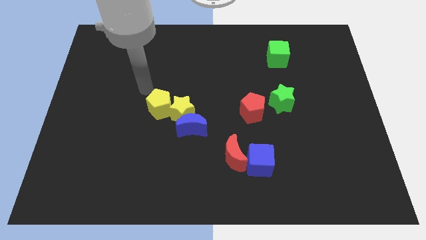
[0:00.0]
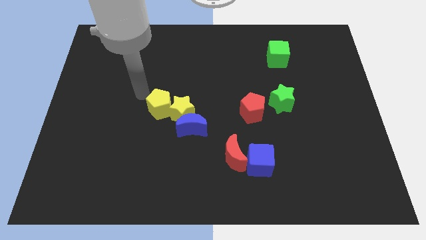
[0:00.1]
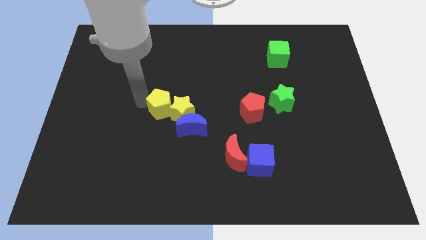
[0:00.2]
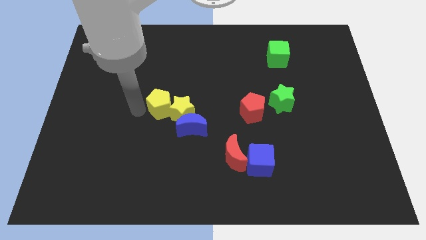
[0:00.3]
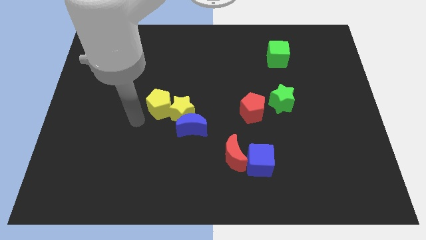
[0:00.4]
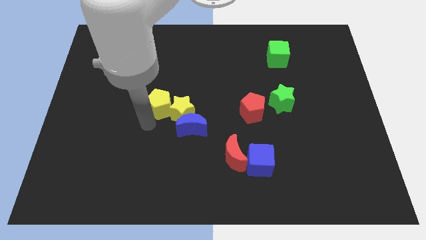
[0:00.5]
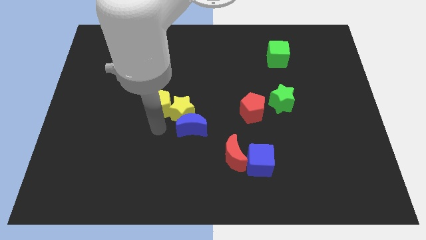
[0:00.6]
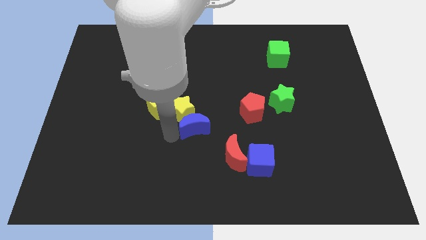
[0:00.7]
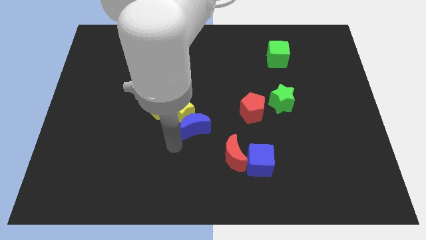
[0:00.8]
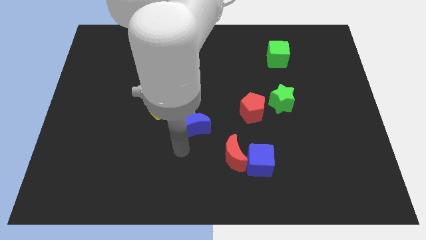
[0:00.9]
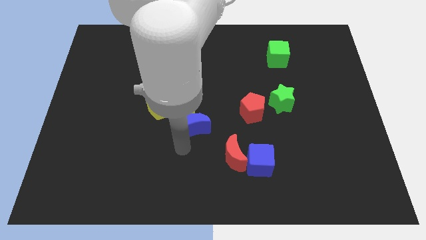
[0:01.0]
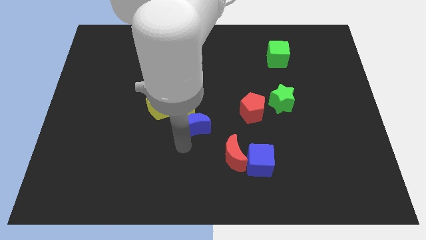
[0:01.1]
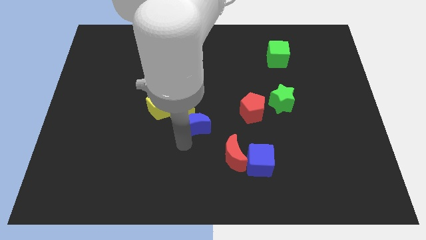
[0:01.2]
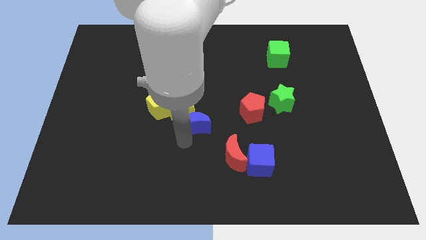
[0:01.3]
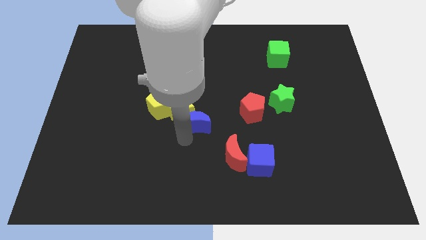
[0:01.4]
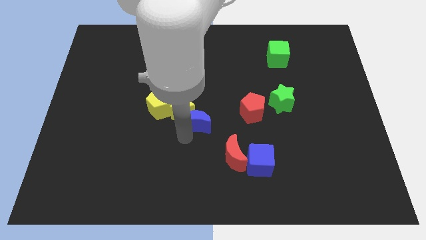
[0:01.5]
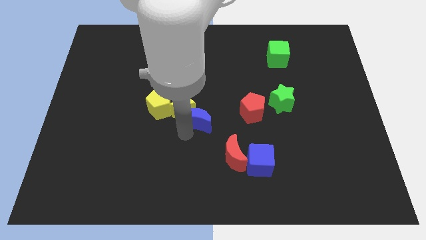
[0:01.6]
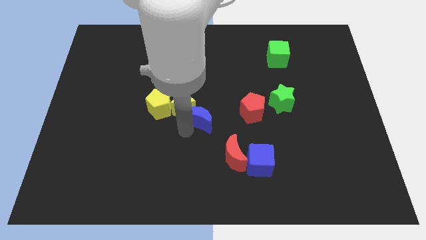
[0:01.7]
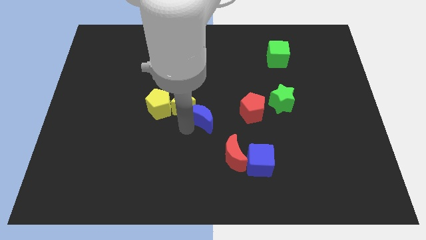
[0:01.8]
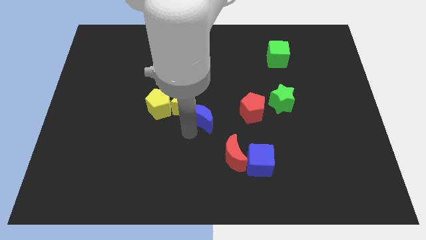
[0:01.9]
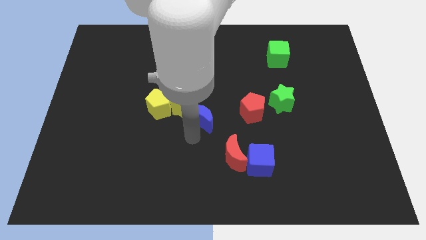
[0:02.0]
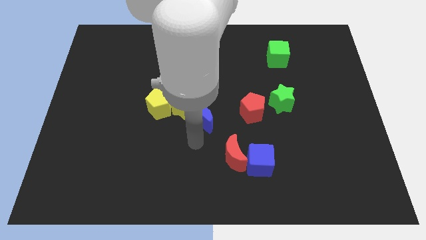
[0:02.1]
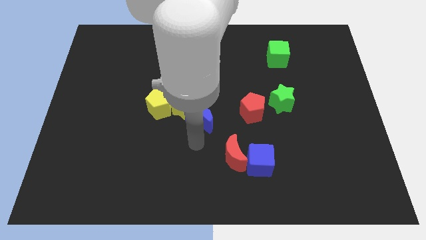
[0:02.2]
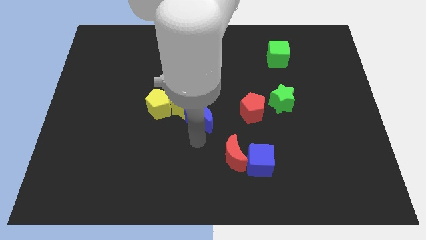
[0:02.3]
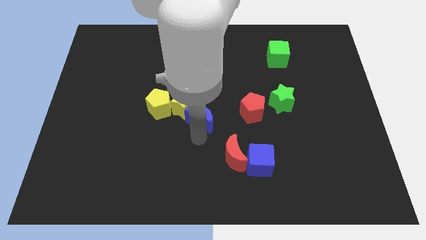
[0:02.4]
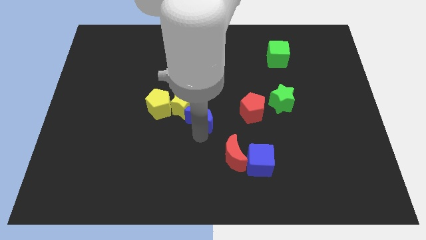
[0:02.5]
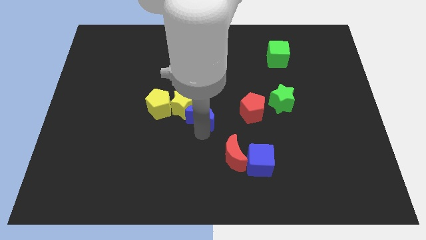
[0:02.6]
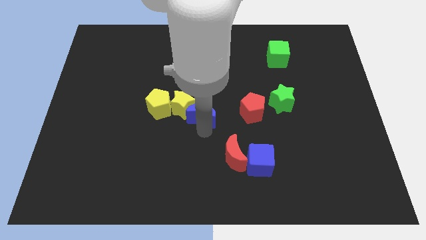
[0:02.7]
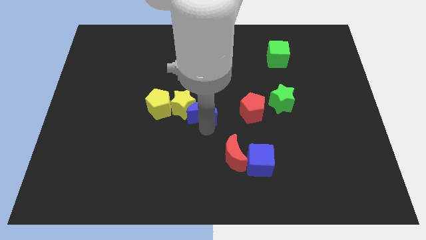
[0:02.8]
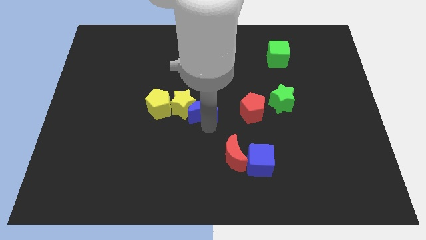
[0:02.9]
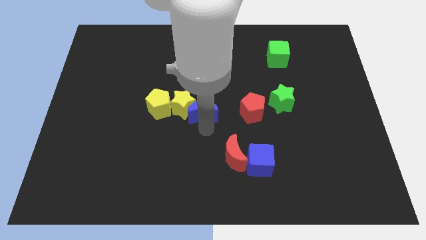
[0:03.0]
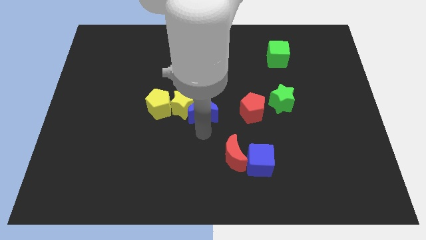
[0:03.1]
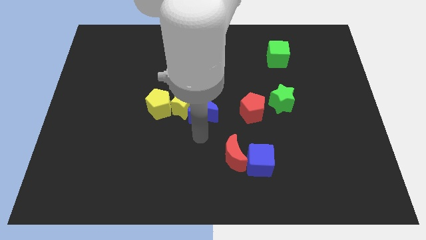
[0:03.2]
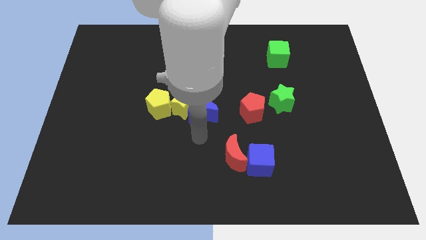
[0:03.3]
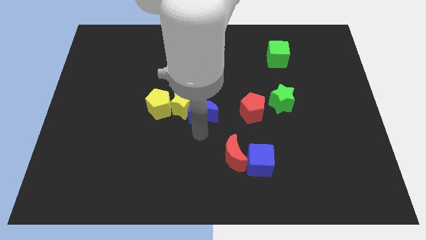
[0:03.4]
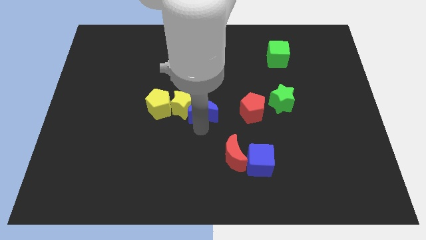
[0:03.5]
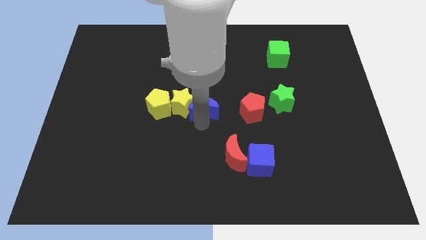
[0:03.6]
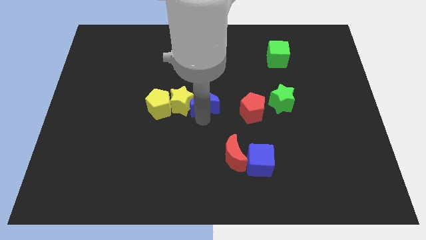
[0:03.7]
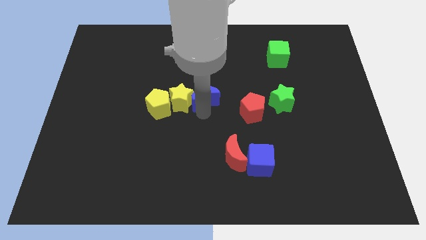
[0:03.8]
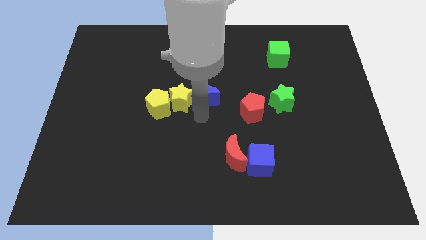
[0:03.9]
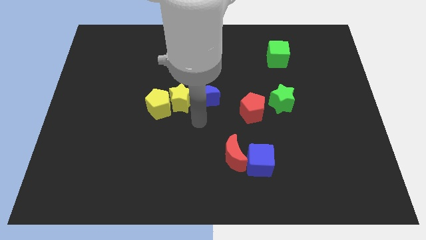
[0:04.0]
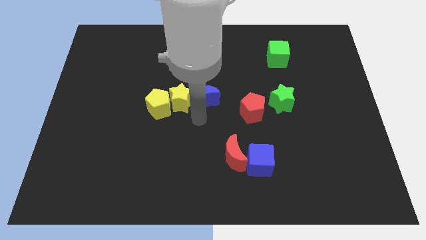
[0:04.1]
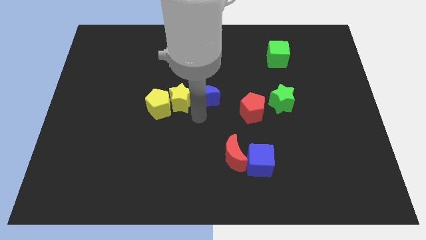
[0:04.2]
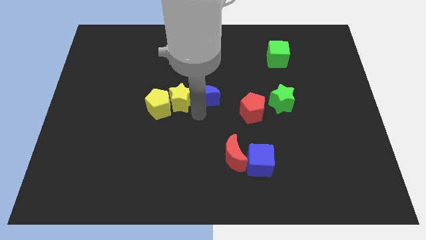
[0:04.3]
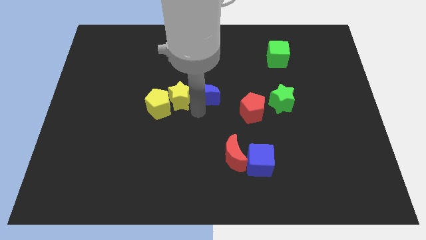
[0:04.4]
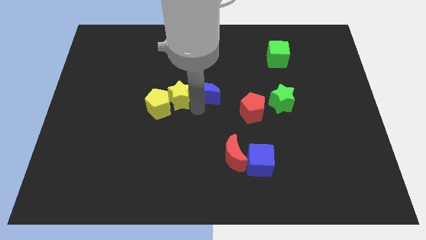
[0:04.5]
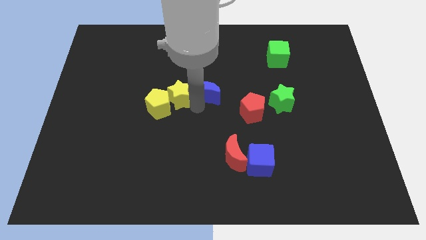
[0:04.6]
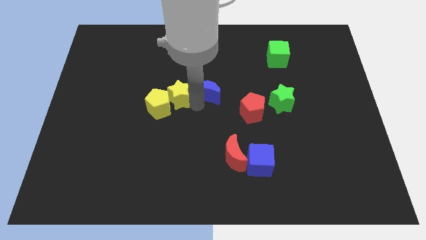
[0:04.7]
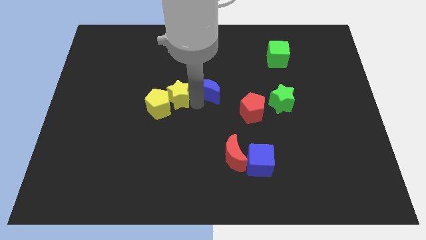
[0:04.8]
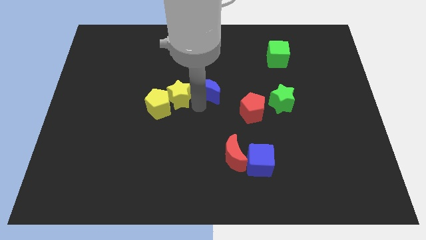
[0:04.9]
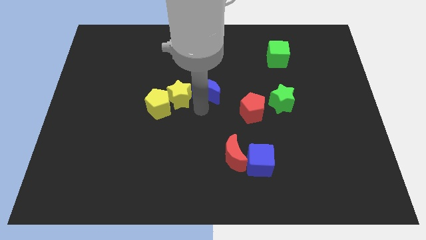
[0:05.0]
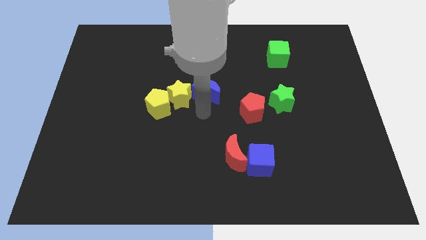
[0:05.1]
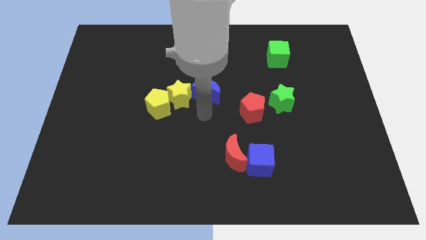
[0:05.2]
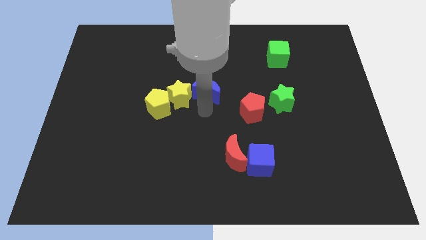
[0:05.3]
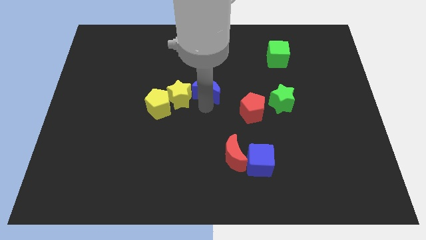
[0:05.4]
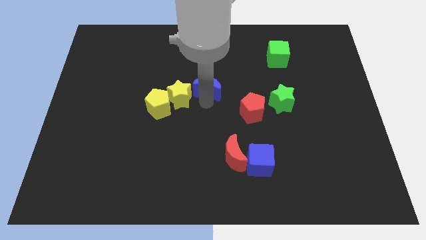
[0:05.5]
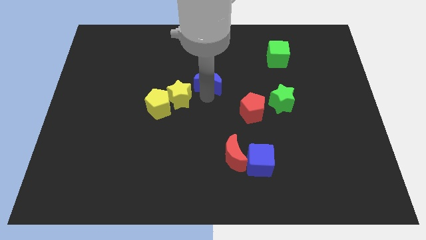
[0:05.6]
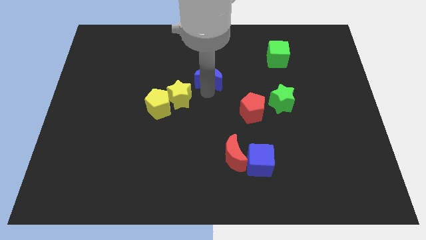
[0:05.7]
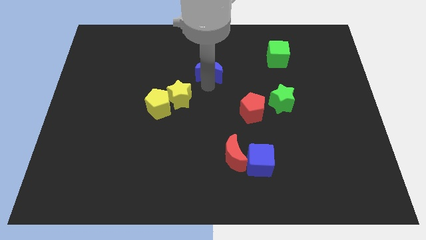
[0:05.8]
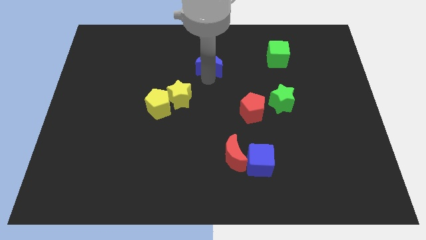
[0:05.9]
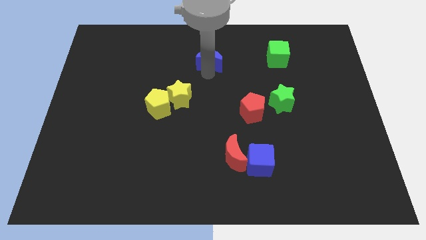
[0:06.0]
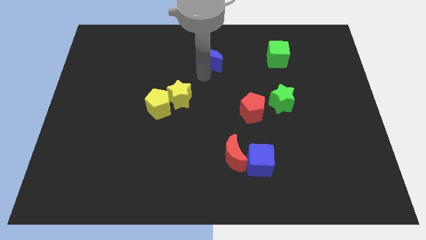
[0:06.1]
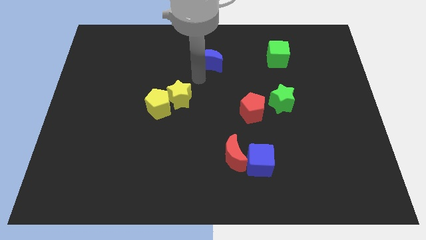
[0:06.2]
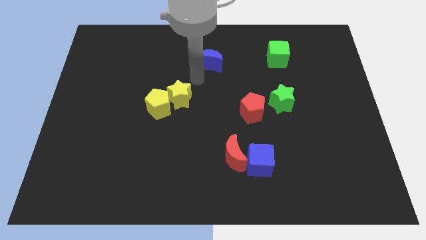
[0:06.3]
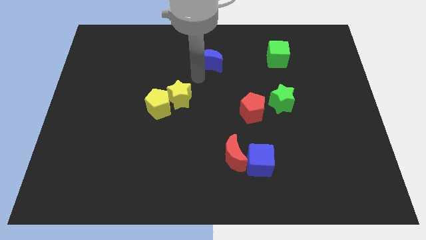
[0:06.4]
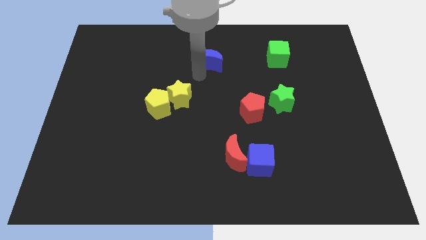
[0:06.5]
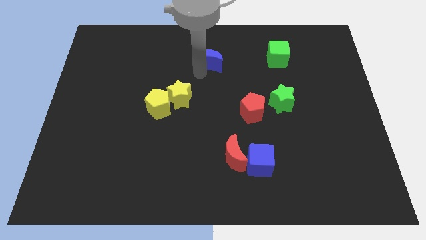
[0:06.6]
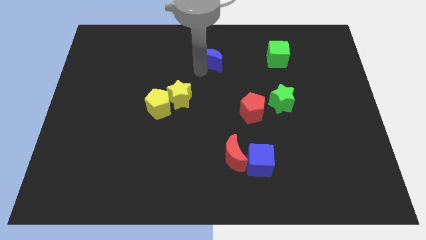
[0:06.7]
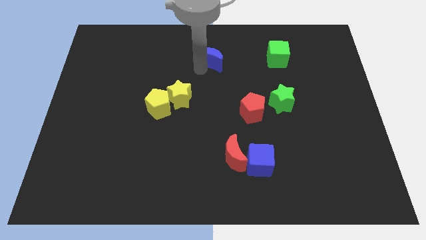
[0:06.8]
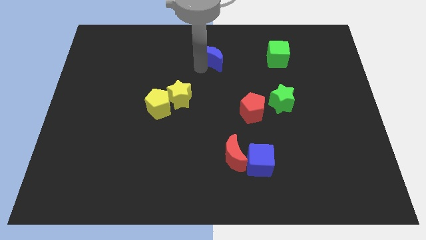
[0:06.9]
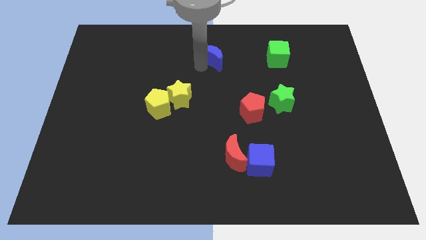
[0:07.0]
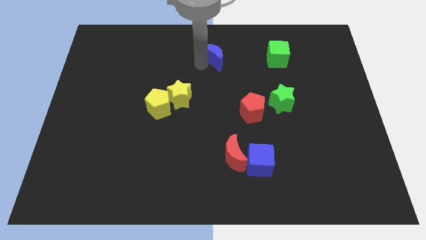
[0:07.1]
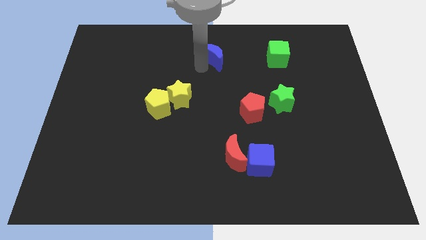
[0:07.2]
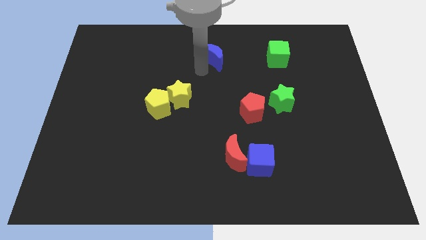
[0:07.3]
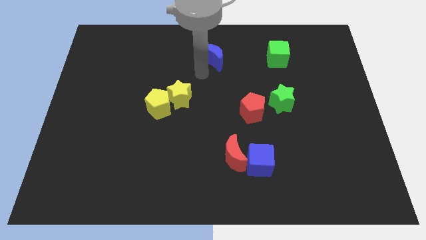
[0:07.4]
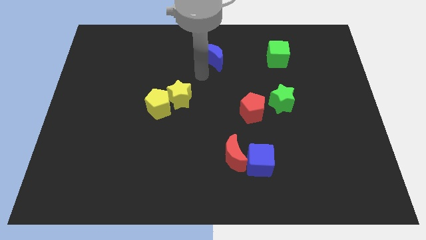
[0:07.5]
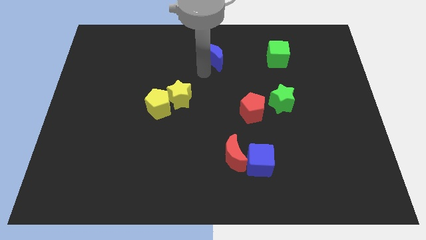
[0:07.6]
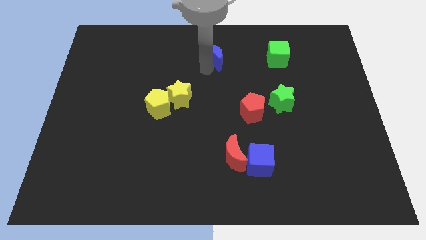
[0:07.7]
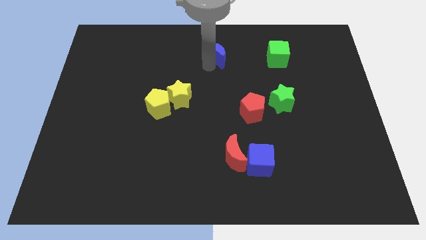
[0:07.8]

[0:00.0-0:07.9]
slide the blue moon to the towards your base
